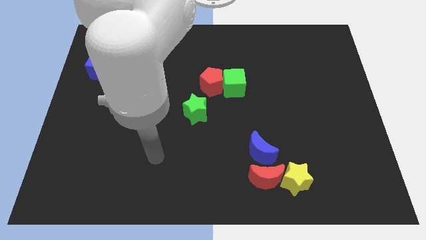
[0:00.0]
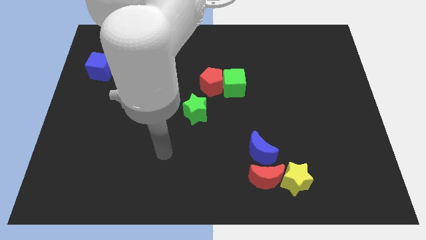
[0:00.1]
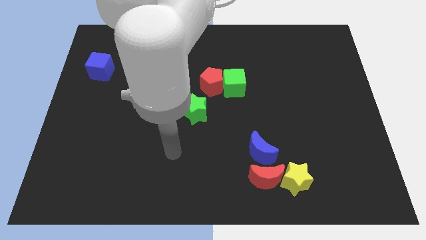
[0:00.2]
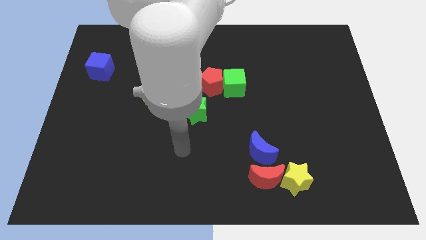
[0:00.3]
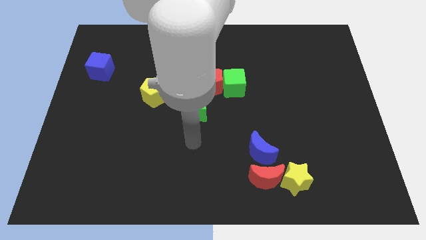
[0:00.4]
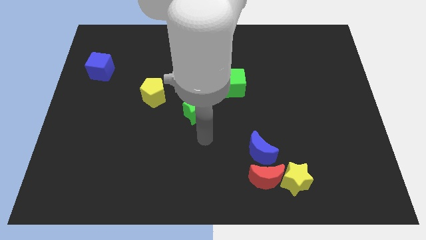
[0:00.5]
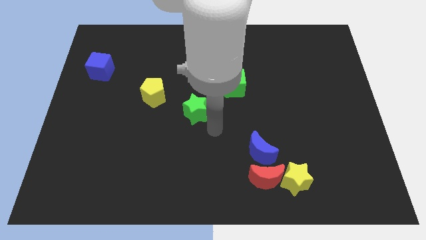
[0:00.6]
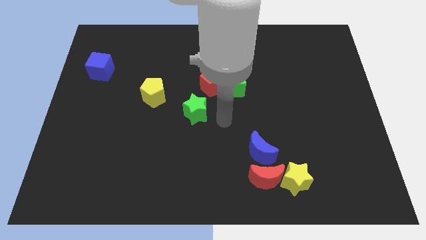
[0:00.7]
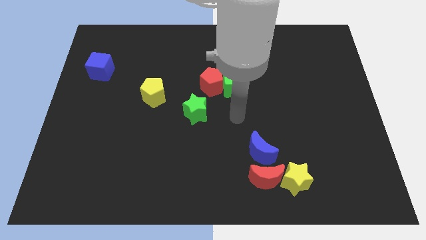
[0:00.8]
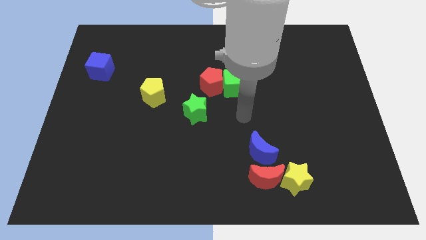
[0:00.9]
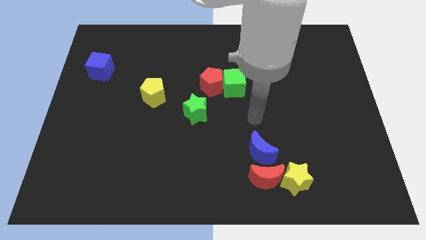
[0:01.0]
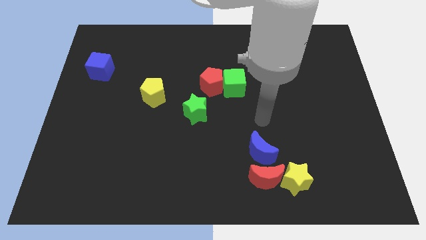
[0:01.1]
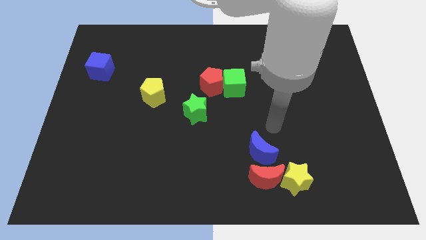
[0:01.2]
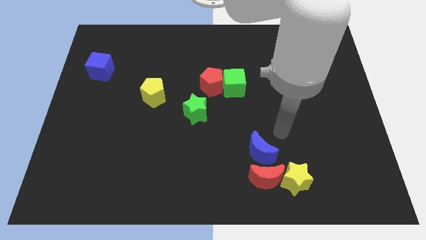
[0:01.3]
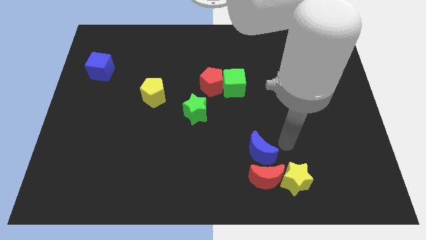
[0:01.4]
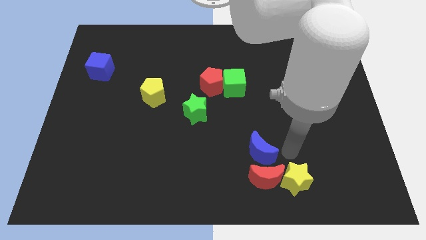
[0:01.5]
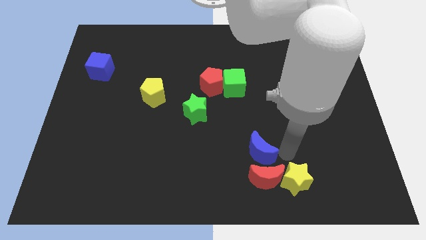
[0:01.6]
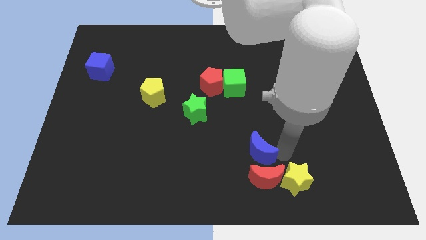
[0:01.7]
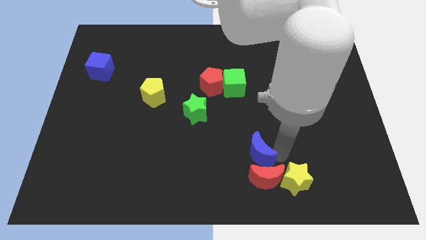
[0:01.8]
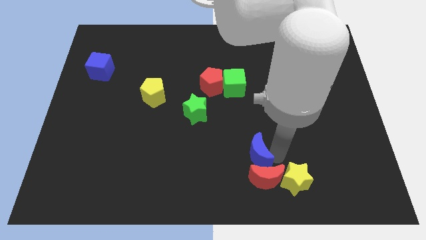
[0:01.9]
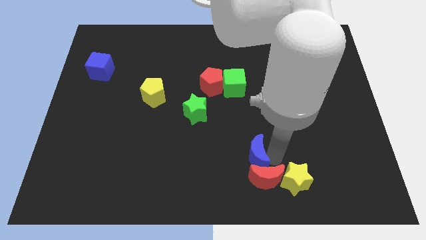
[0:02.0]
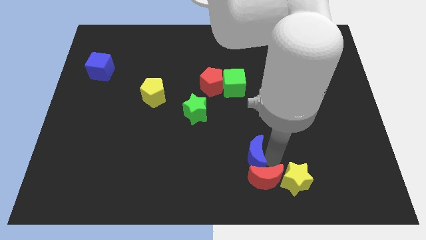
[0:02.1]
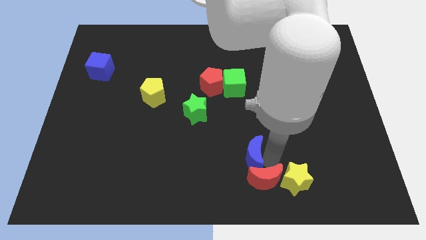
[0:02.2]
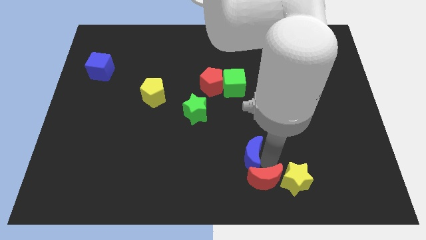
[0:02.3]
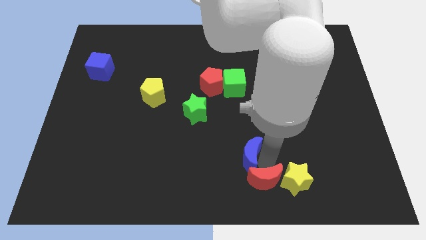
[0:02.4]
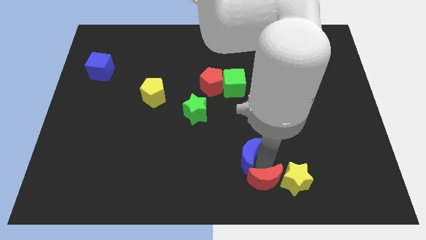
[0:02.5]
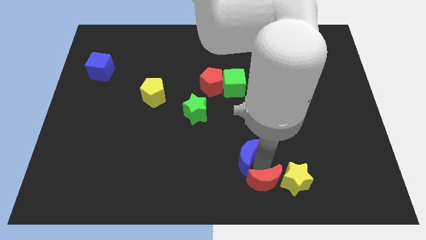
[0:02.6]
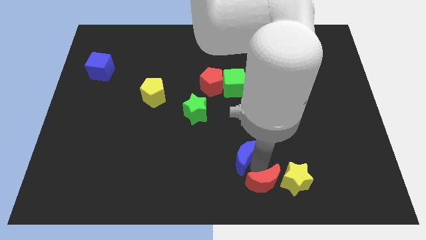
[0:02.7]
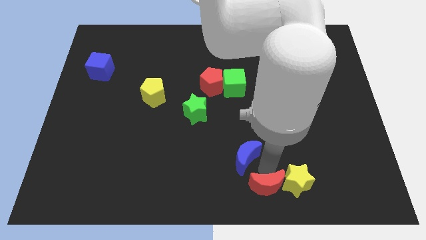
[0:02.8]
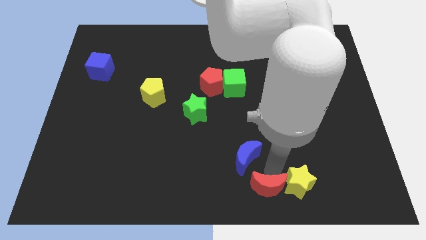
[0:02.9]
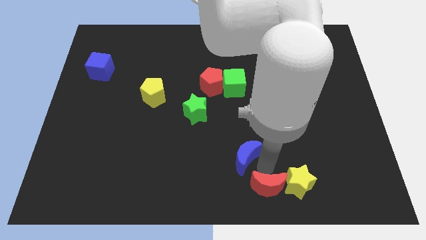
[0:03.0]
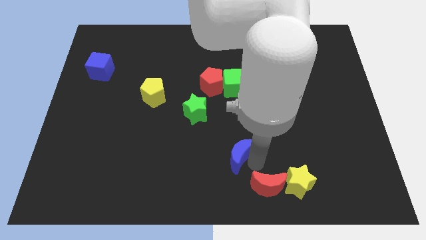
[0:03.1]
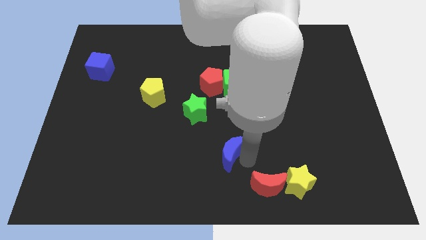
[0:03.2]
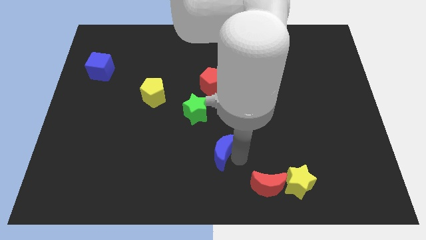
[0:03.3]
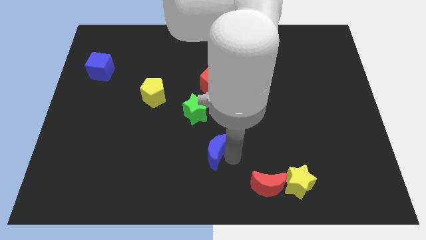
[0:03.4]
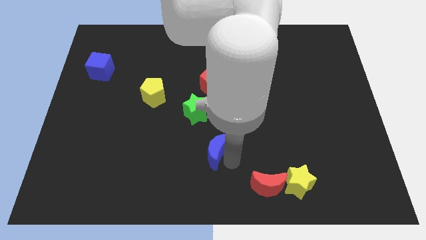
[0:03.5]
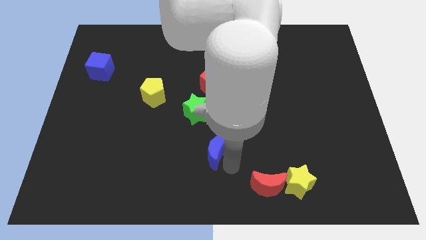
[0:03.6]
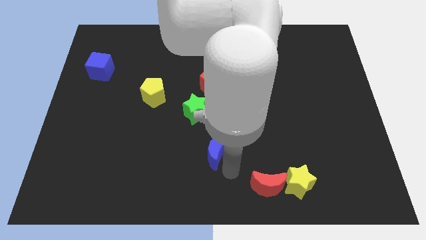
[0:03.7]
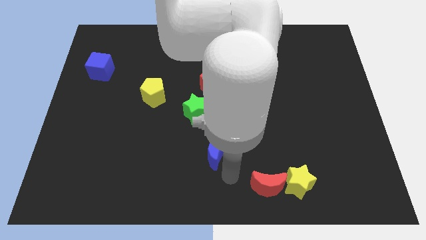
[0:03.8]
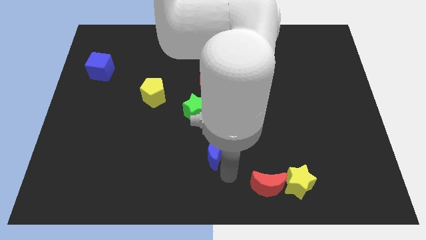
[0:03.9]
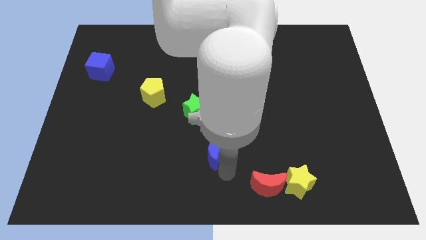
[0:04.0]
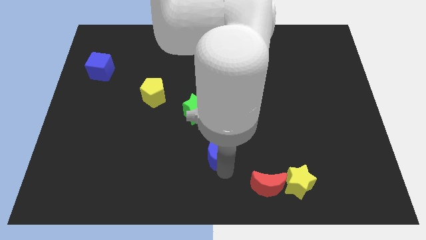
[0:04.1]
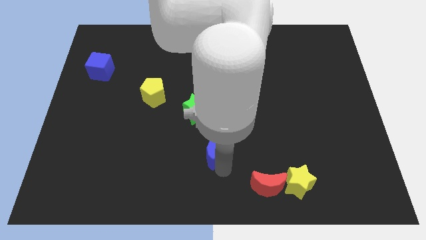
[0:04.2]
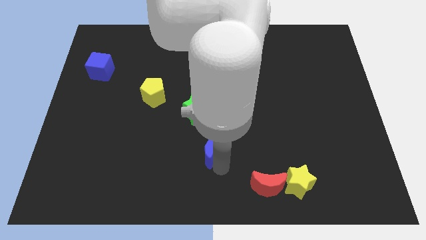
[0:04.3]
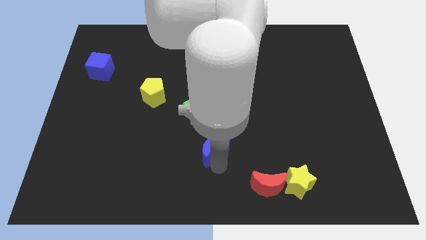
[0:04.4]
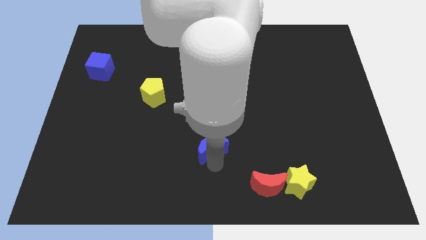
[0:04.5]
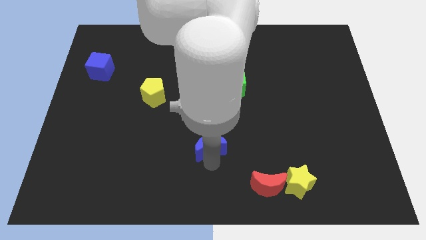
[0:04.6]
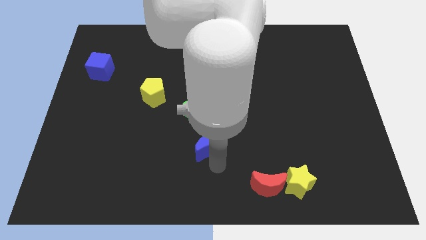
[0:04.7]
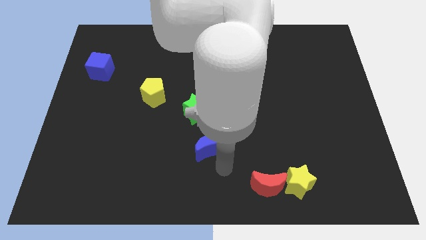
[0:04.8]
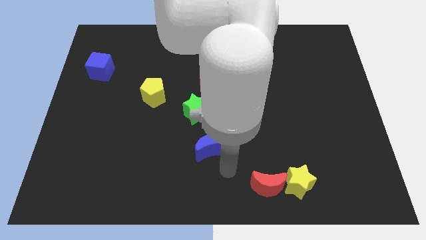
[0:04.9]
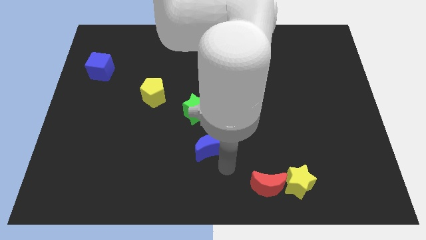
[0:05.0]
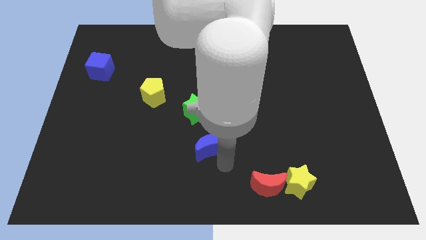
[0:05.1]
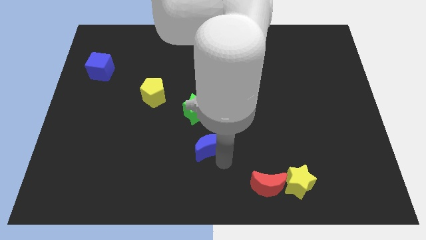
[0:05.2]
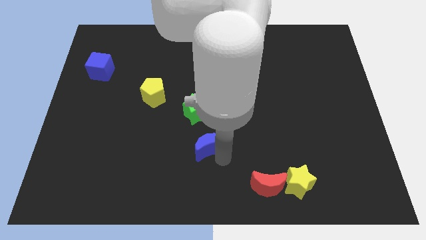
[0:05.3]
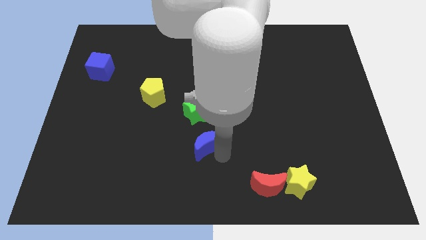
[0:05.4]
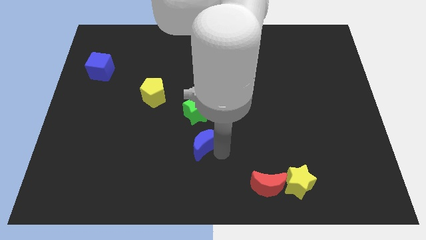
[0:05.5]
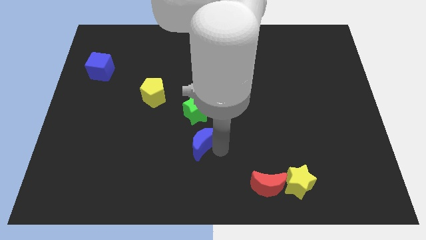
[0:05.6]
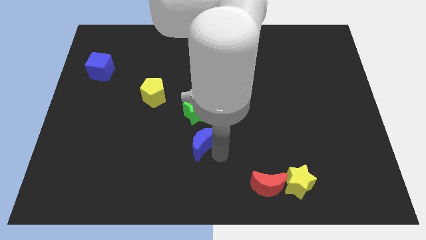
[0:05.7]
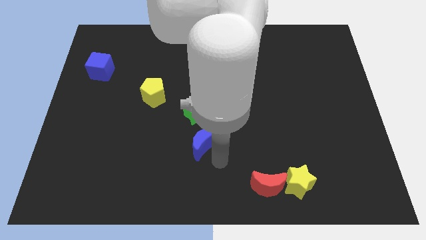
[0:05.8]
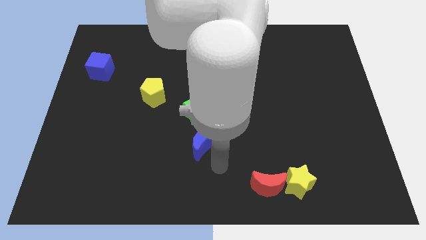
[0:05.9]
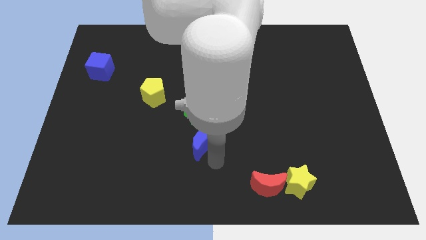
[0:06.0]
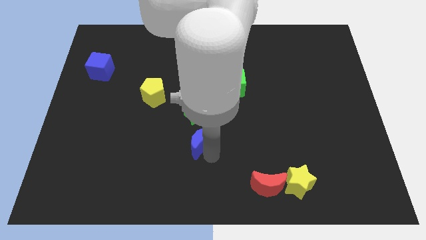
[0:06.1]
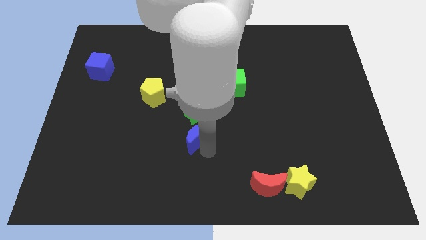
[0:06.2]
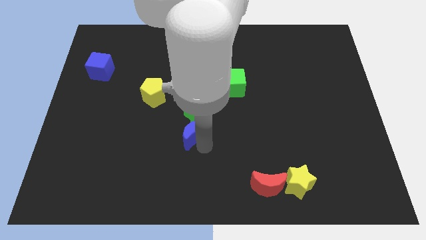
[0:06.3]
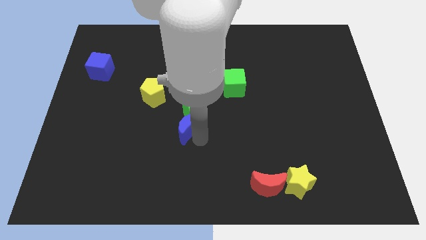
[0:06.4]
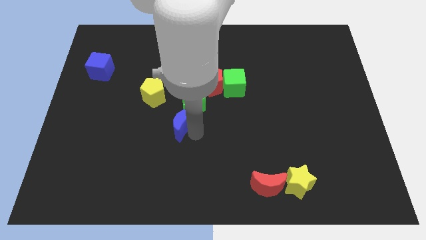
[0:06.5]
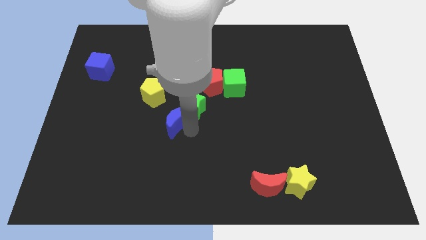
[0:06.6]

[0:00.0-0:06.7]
push the blue moon to the left side of the green star

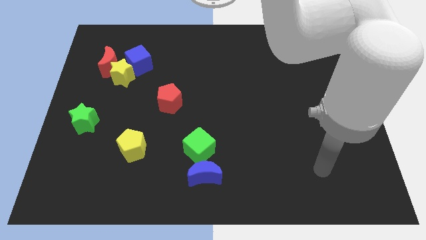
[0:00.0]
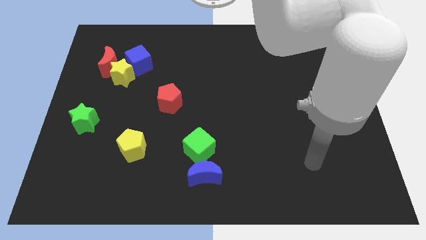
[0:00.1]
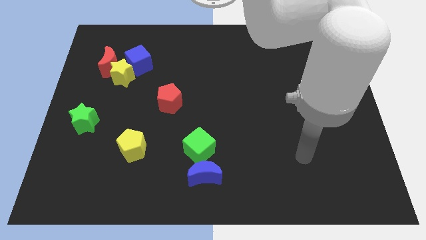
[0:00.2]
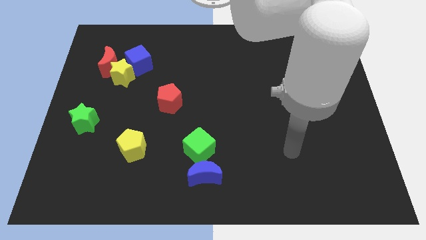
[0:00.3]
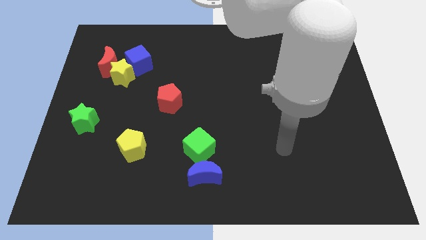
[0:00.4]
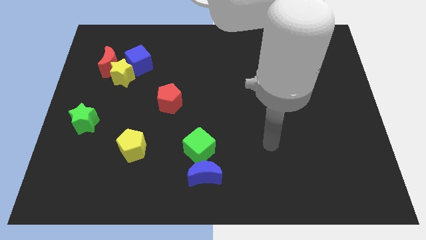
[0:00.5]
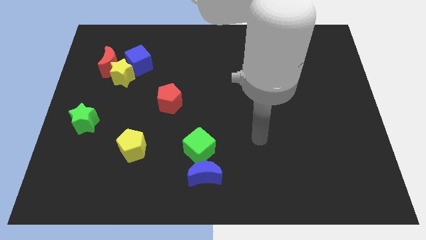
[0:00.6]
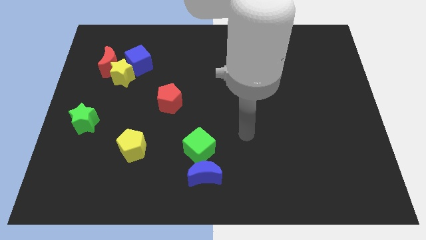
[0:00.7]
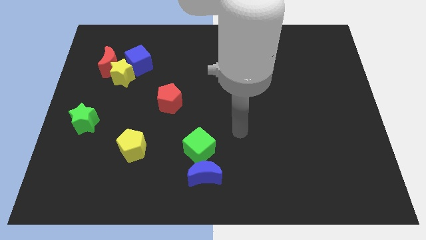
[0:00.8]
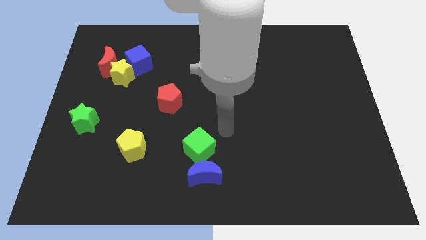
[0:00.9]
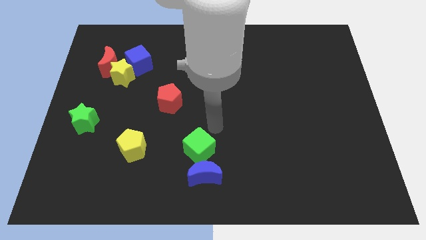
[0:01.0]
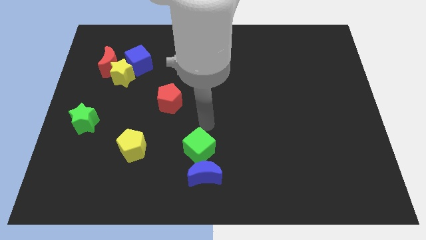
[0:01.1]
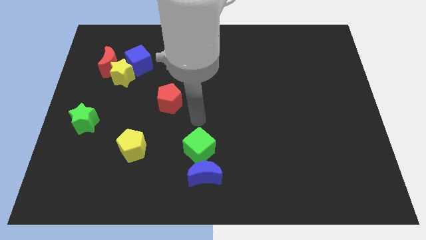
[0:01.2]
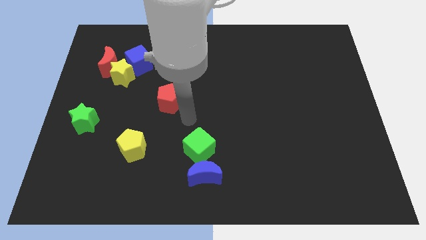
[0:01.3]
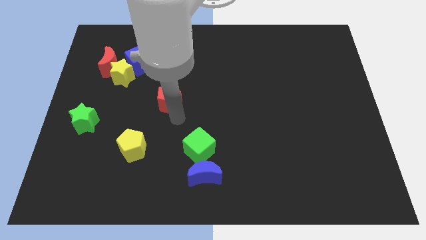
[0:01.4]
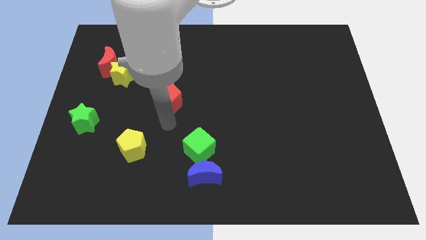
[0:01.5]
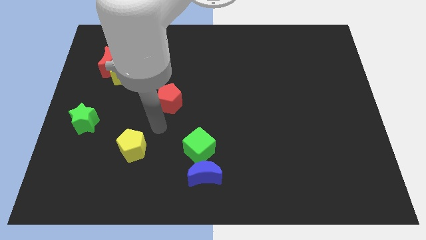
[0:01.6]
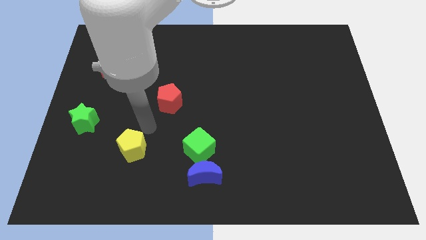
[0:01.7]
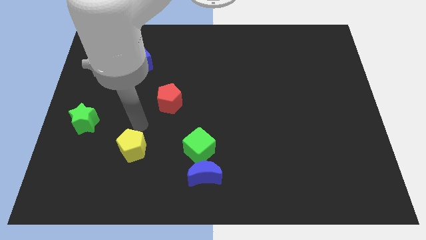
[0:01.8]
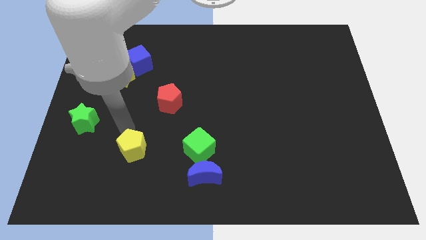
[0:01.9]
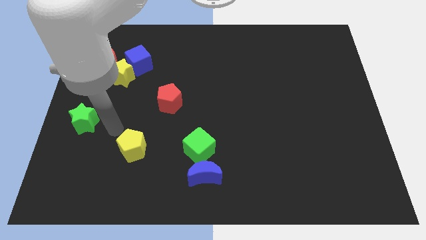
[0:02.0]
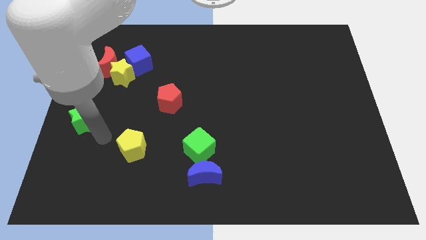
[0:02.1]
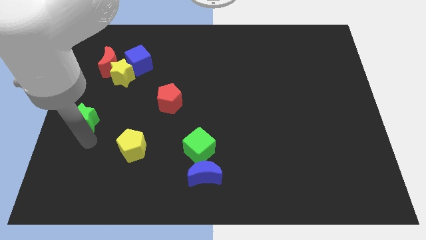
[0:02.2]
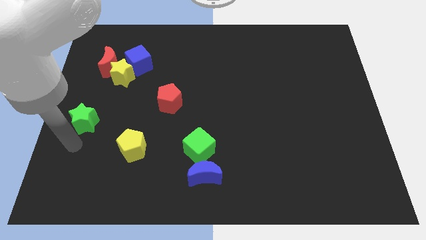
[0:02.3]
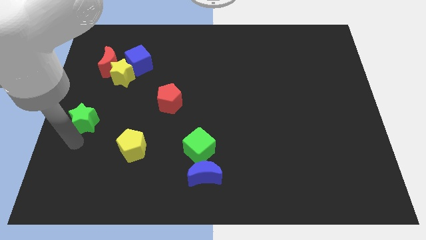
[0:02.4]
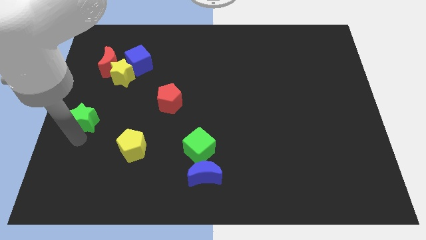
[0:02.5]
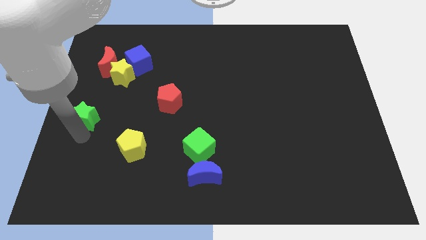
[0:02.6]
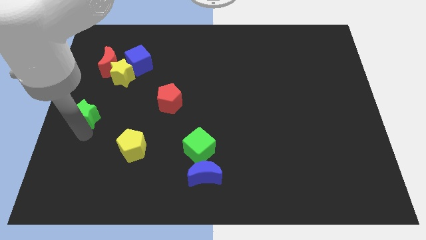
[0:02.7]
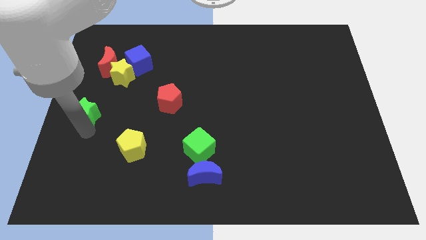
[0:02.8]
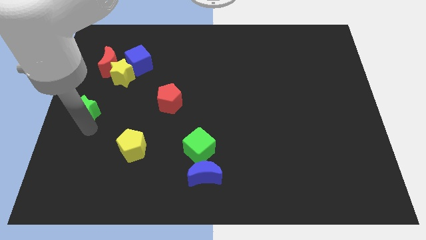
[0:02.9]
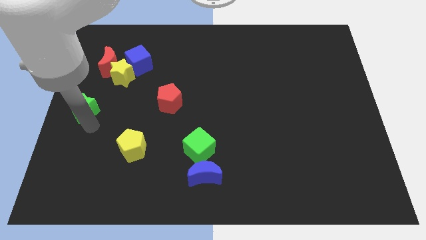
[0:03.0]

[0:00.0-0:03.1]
push the green star to the bottom of the red moon
